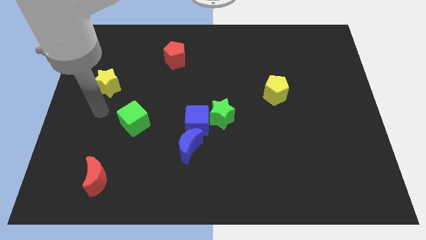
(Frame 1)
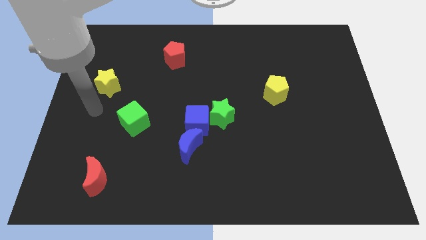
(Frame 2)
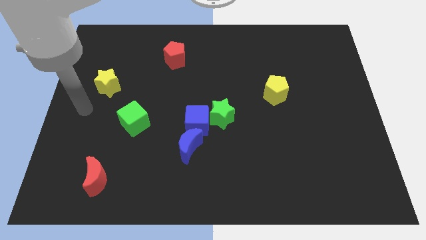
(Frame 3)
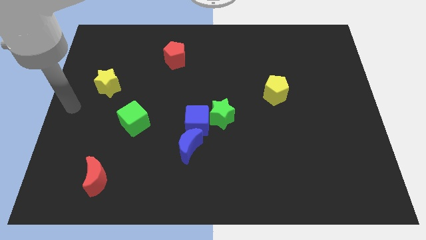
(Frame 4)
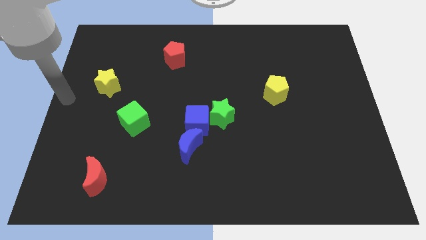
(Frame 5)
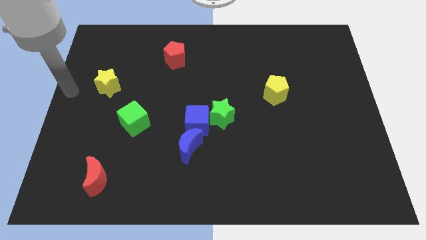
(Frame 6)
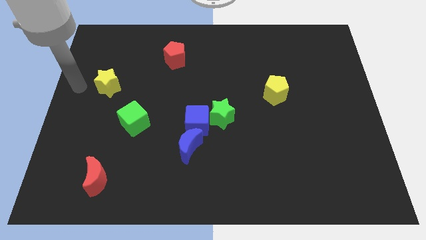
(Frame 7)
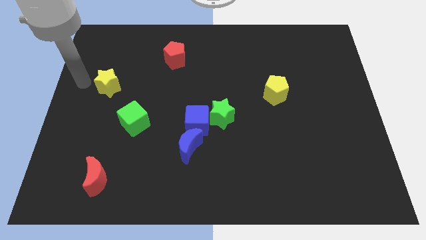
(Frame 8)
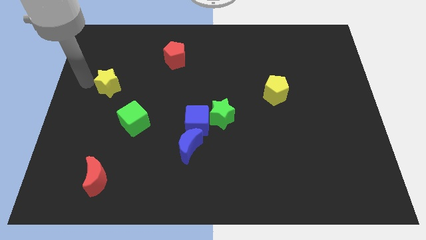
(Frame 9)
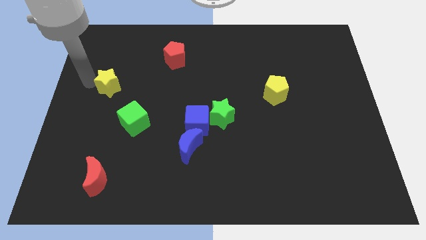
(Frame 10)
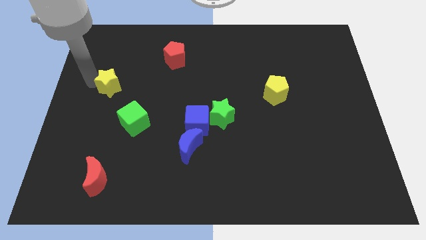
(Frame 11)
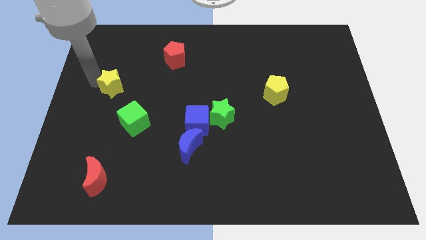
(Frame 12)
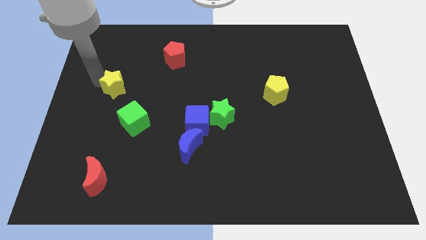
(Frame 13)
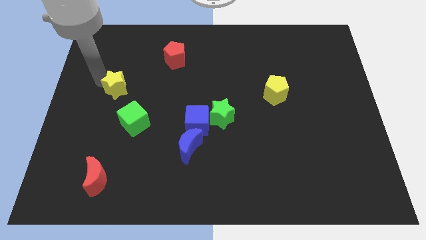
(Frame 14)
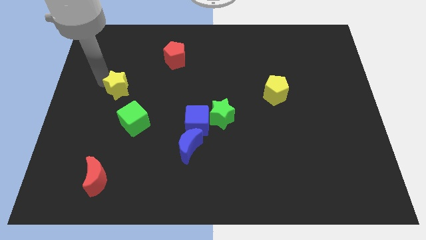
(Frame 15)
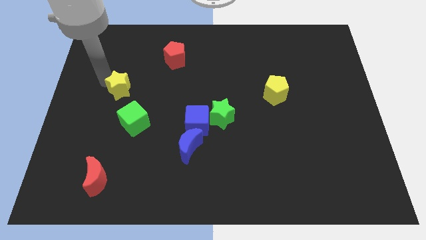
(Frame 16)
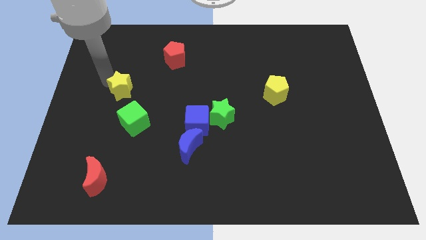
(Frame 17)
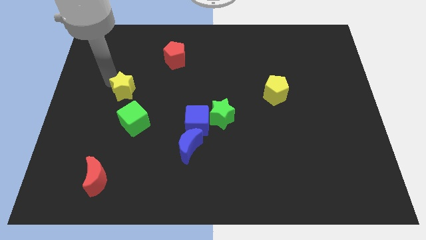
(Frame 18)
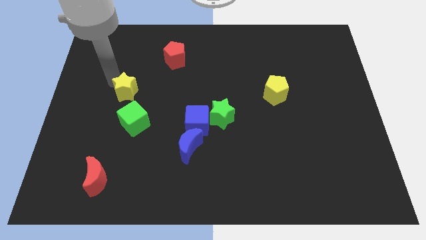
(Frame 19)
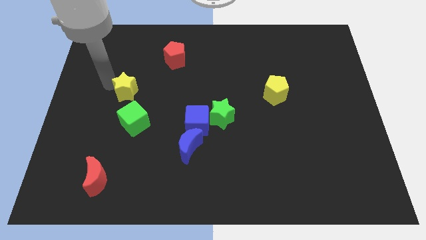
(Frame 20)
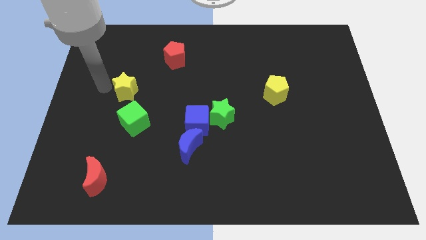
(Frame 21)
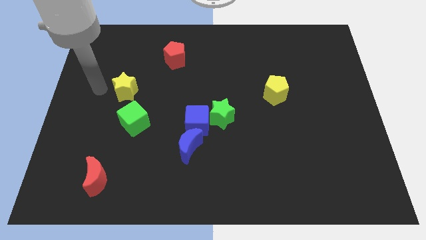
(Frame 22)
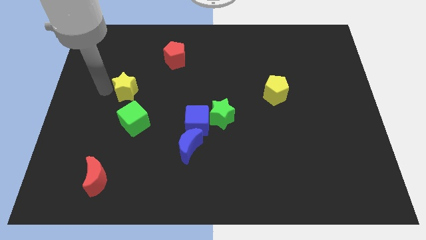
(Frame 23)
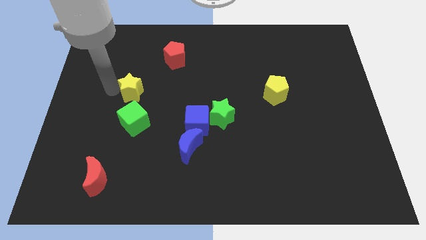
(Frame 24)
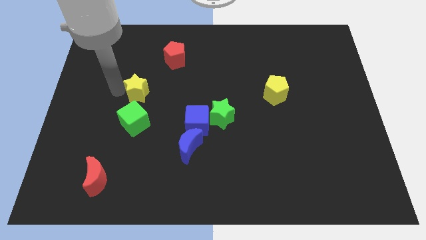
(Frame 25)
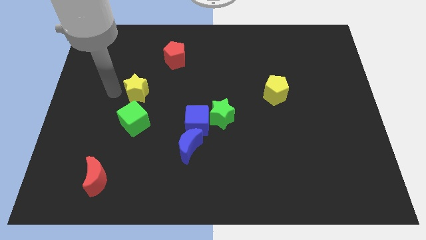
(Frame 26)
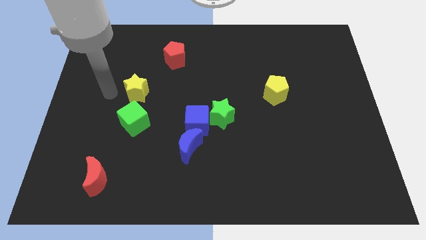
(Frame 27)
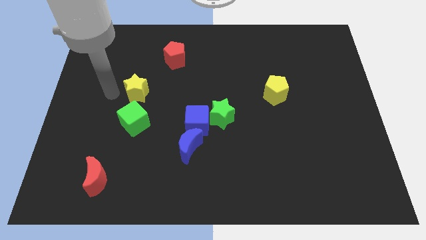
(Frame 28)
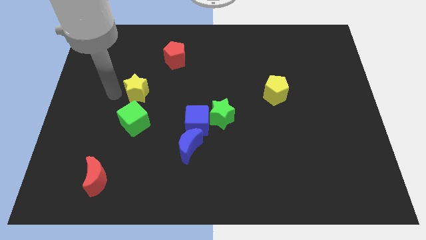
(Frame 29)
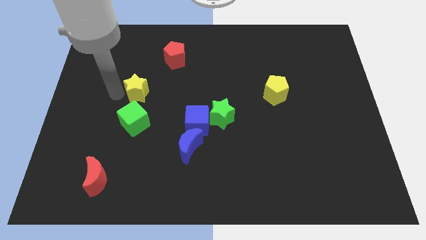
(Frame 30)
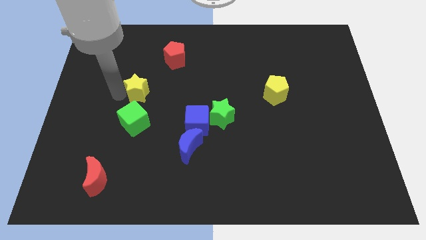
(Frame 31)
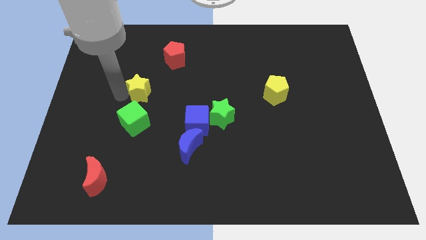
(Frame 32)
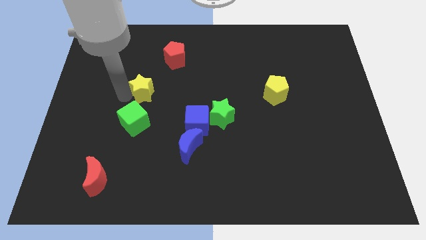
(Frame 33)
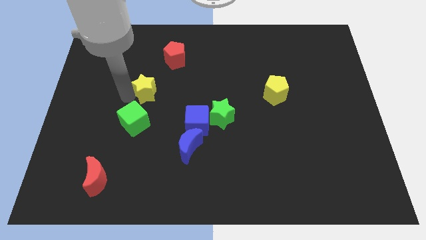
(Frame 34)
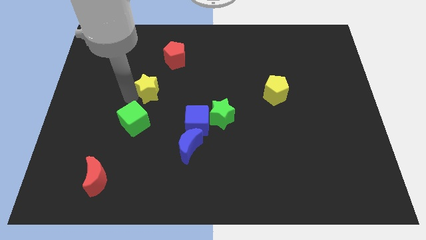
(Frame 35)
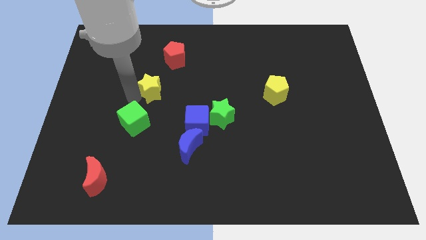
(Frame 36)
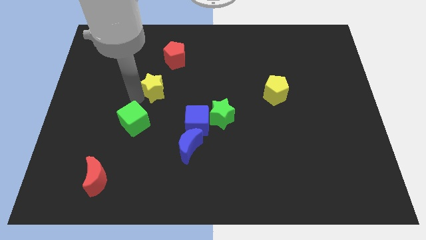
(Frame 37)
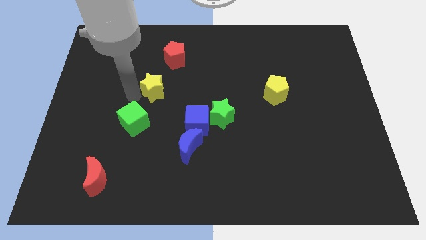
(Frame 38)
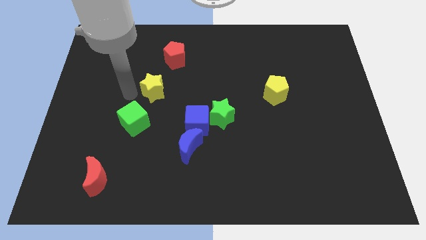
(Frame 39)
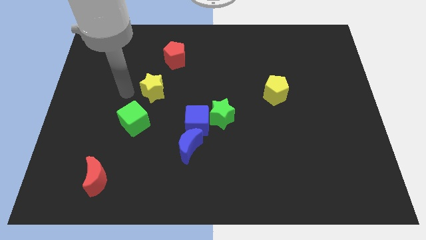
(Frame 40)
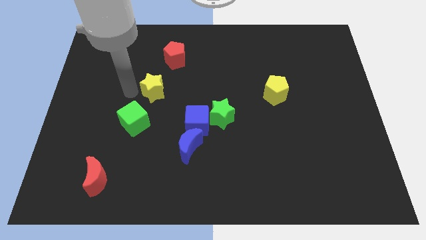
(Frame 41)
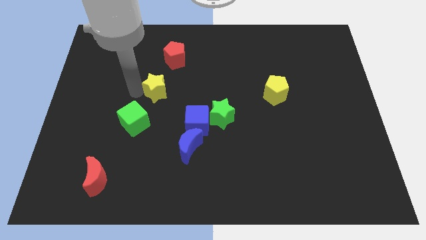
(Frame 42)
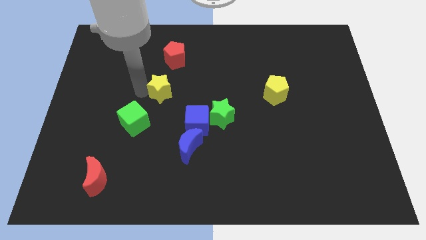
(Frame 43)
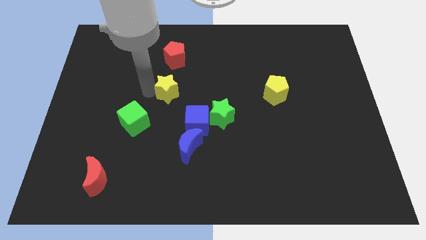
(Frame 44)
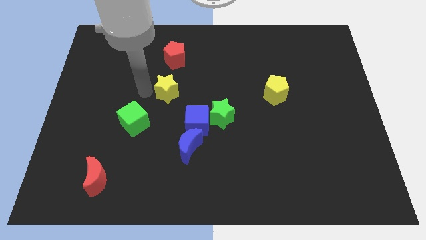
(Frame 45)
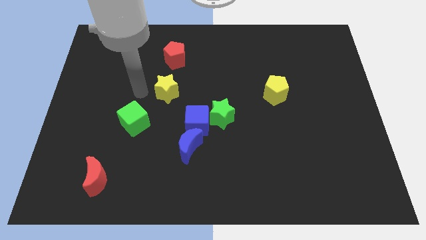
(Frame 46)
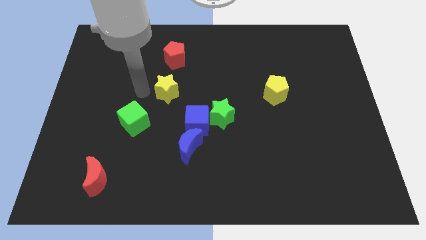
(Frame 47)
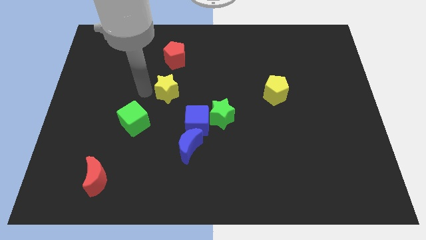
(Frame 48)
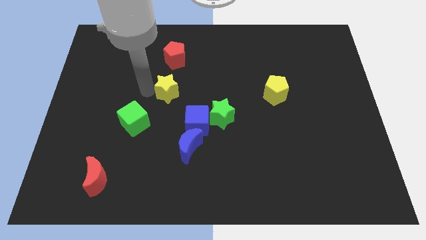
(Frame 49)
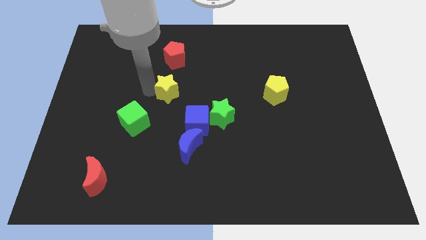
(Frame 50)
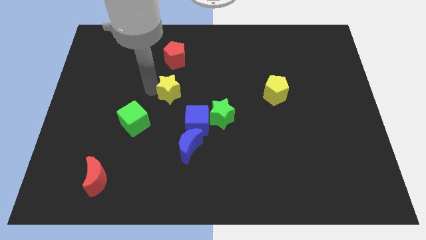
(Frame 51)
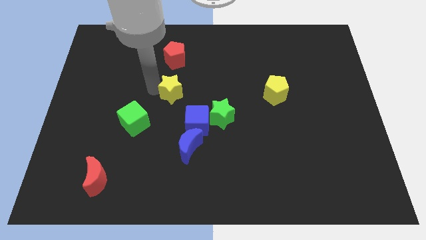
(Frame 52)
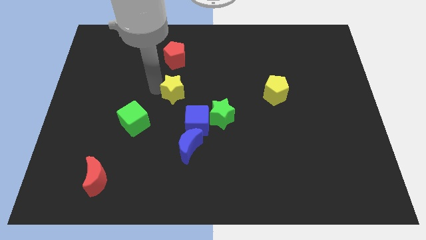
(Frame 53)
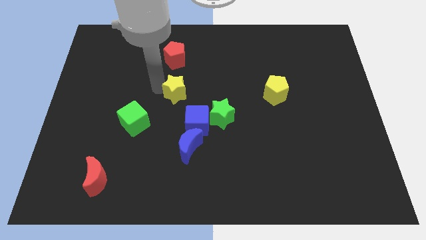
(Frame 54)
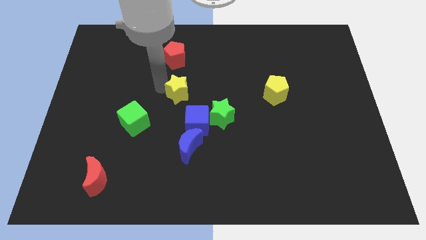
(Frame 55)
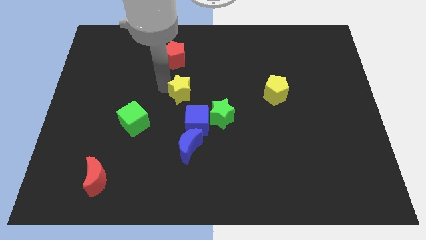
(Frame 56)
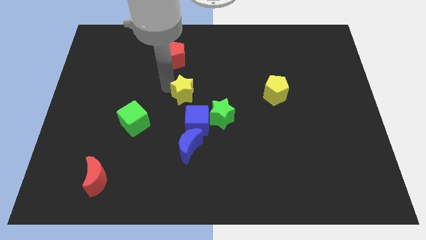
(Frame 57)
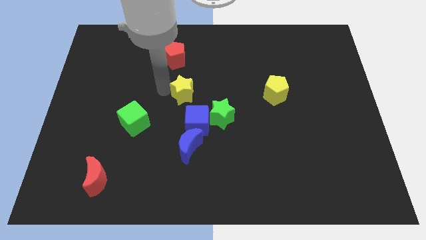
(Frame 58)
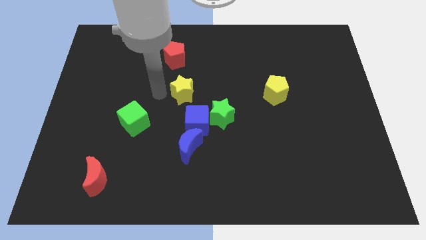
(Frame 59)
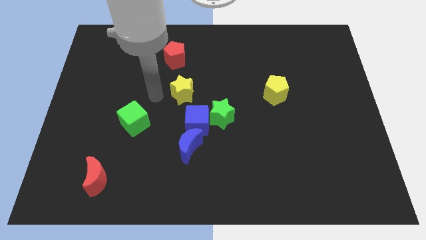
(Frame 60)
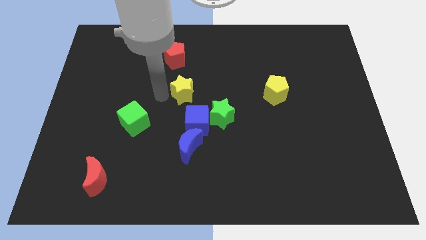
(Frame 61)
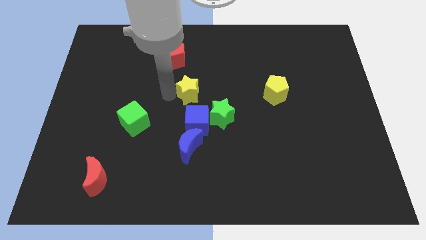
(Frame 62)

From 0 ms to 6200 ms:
slide the yellow star to the right

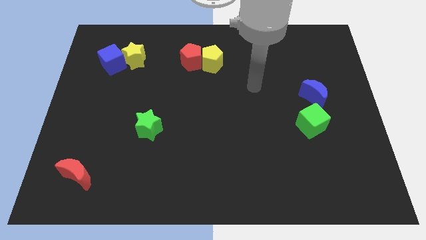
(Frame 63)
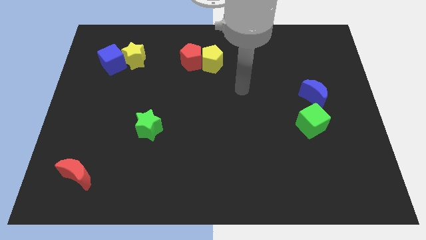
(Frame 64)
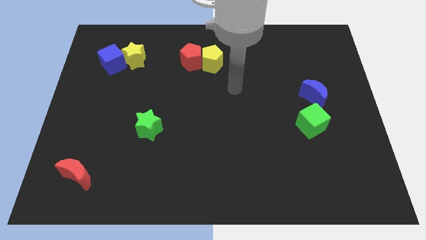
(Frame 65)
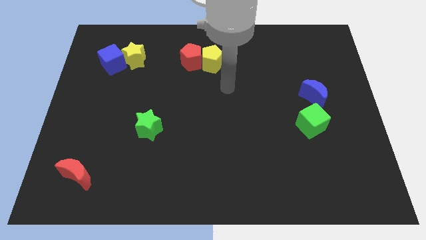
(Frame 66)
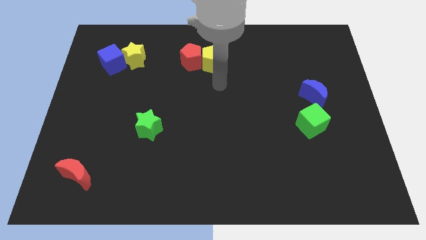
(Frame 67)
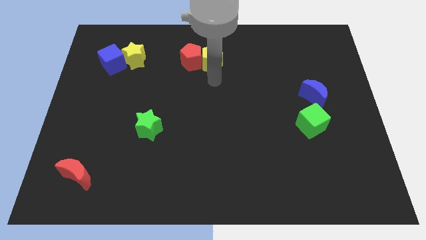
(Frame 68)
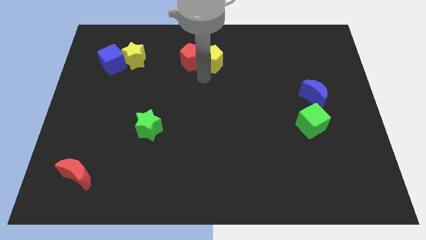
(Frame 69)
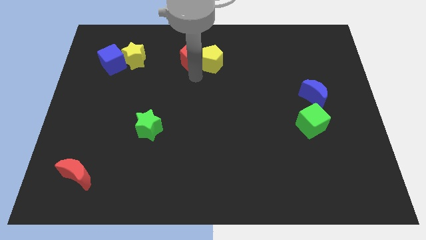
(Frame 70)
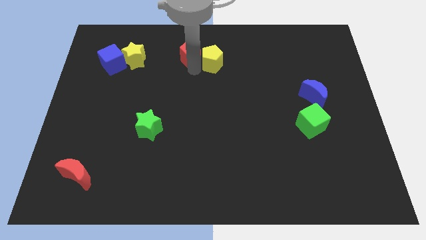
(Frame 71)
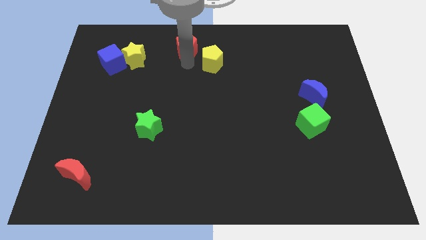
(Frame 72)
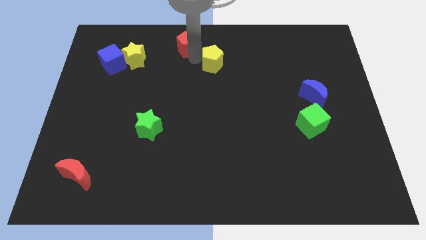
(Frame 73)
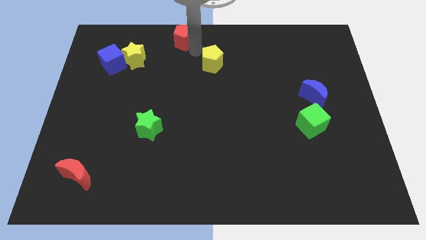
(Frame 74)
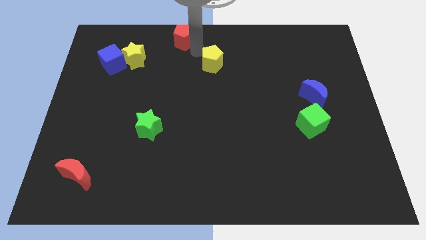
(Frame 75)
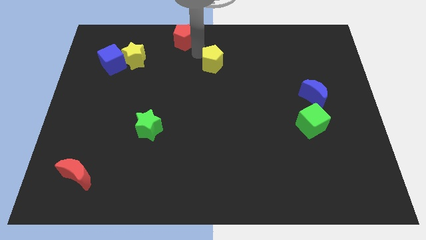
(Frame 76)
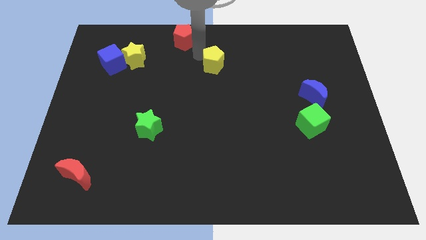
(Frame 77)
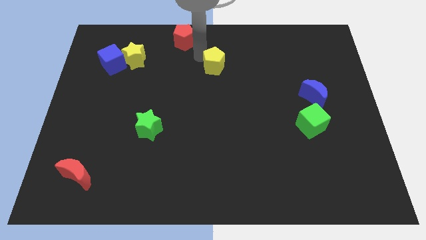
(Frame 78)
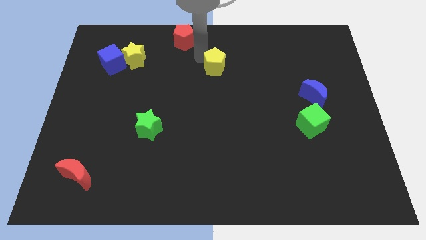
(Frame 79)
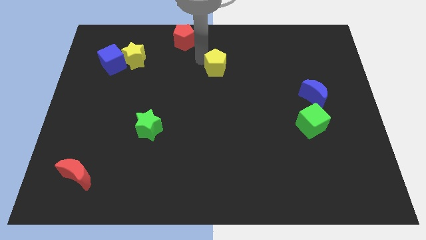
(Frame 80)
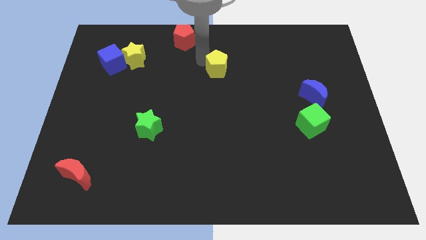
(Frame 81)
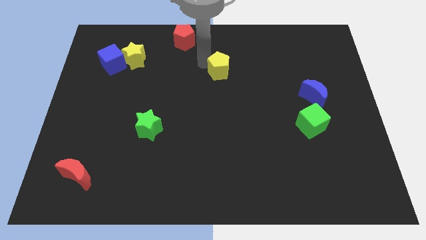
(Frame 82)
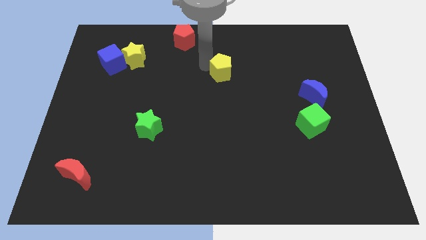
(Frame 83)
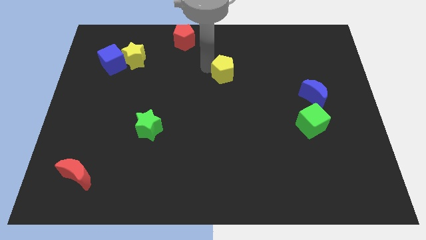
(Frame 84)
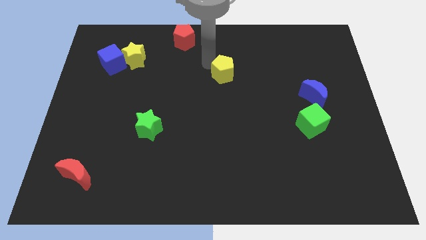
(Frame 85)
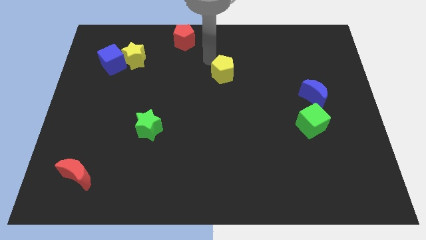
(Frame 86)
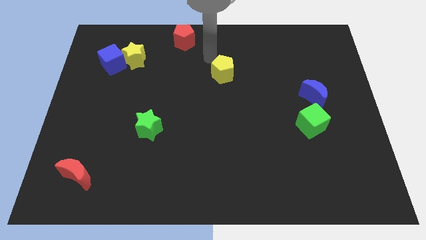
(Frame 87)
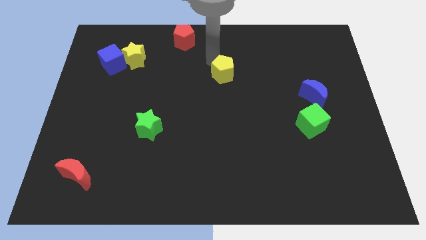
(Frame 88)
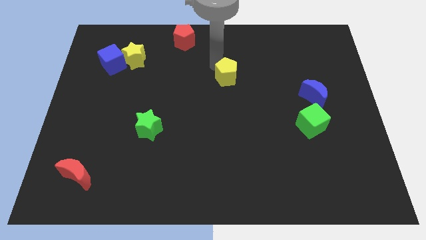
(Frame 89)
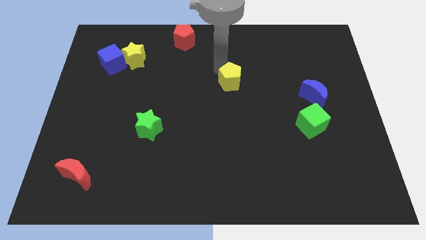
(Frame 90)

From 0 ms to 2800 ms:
move the yellow pentagon down and right slightly
